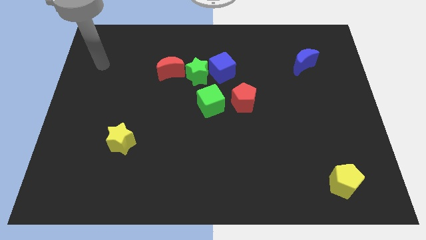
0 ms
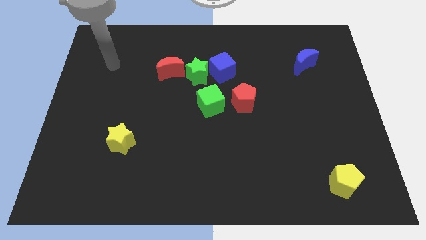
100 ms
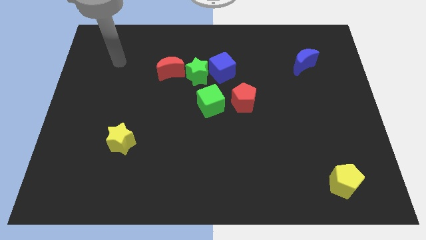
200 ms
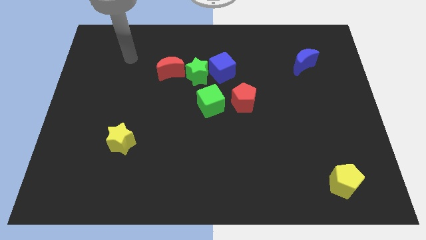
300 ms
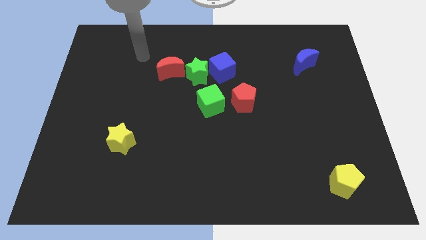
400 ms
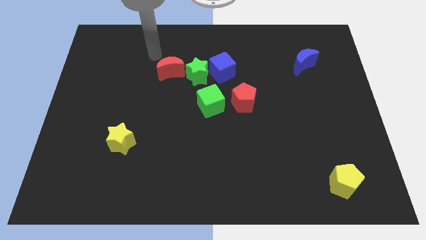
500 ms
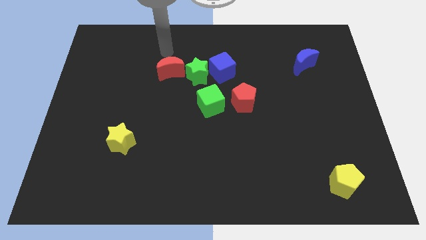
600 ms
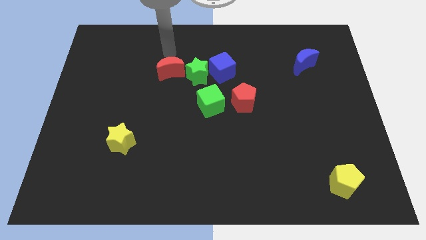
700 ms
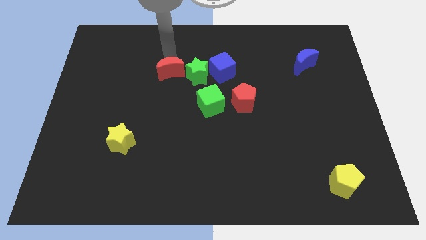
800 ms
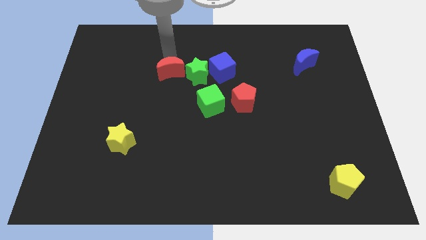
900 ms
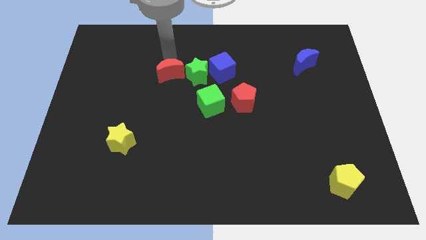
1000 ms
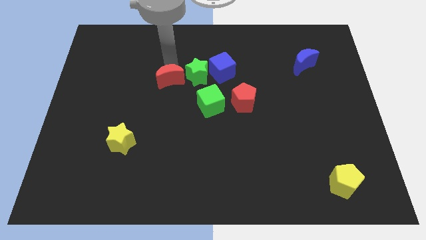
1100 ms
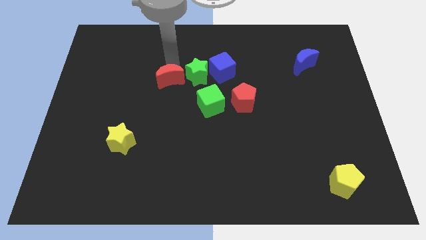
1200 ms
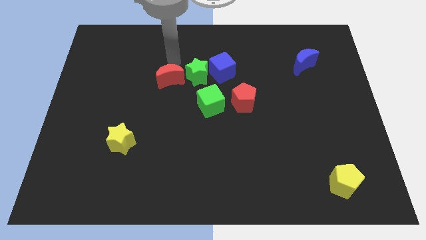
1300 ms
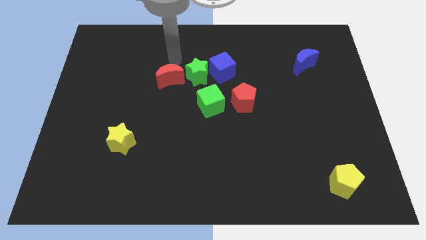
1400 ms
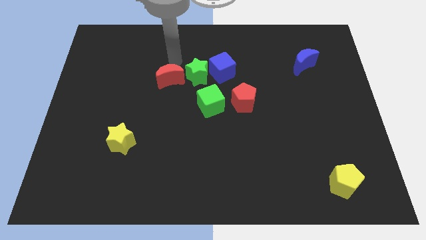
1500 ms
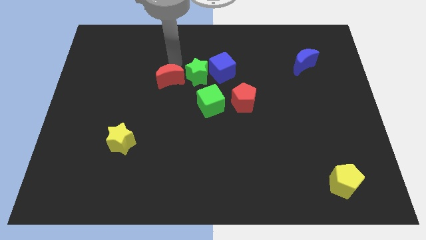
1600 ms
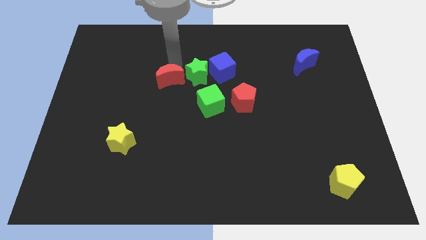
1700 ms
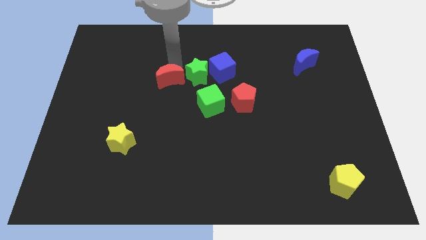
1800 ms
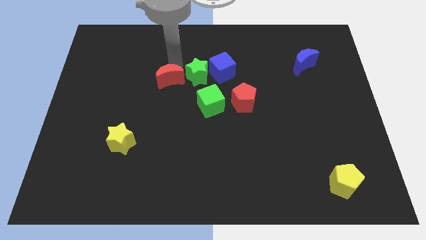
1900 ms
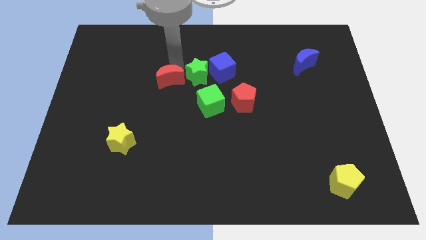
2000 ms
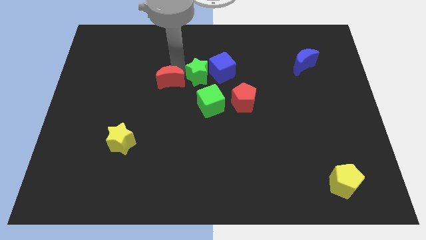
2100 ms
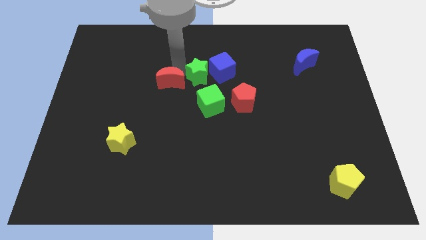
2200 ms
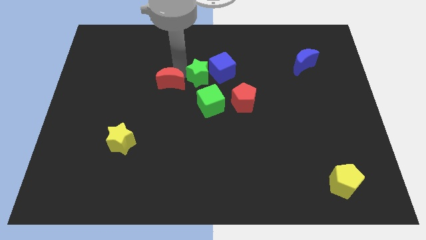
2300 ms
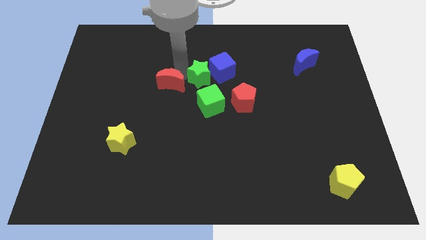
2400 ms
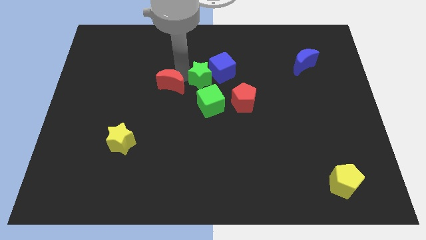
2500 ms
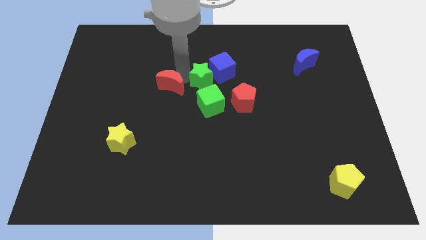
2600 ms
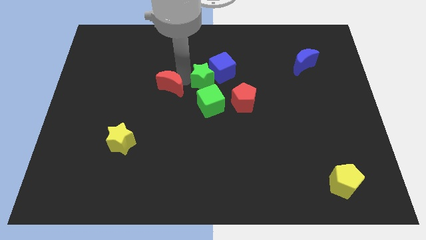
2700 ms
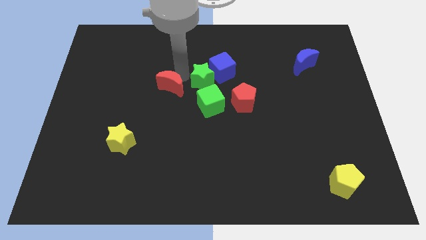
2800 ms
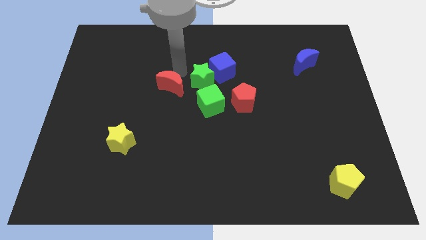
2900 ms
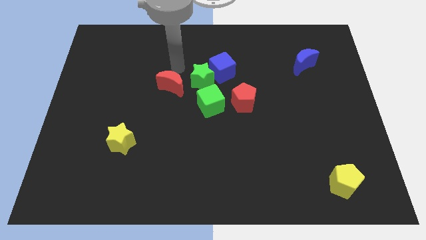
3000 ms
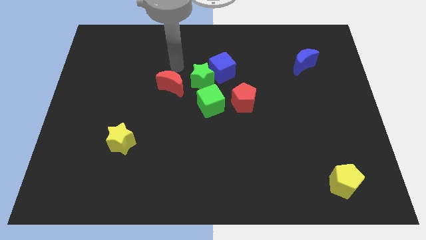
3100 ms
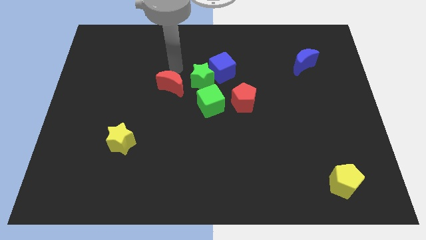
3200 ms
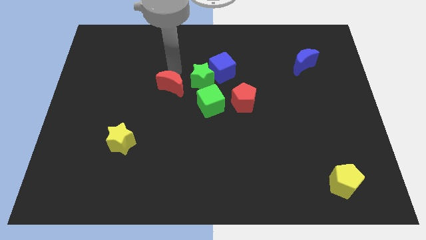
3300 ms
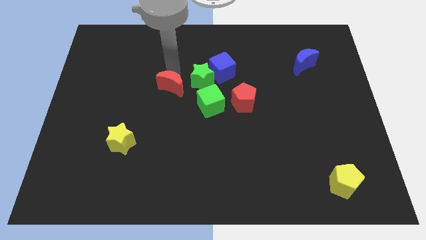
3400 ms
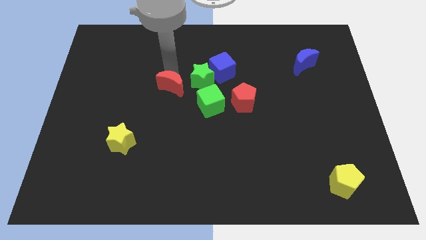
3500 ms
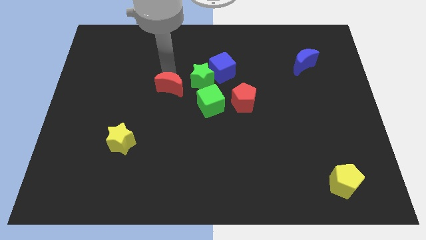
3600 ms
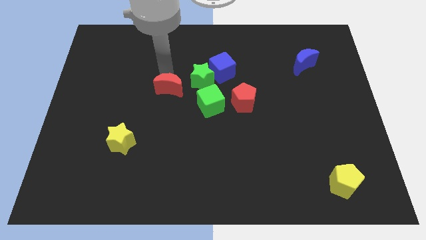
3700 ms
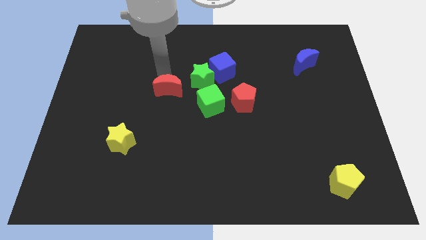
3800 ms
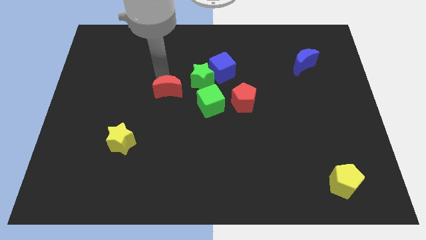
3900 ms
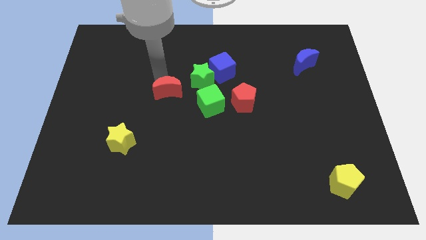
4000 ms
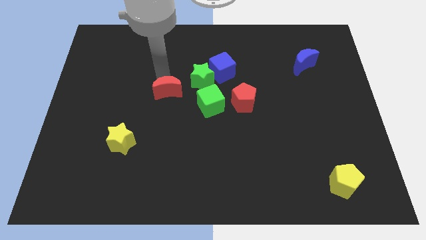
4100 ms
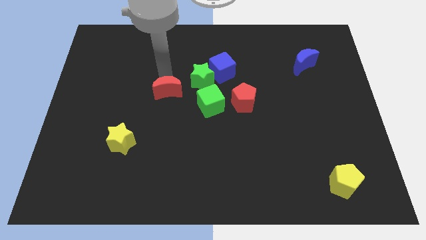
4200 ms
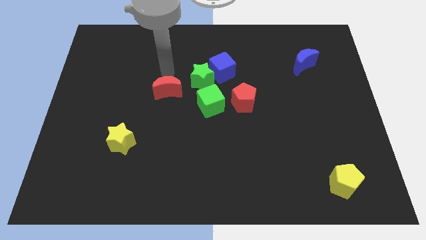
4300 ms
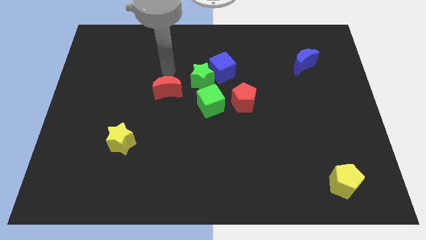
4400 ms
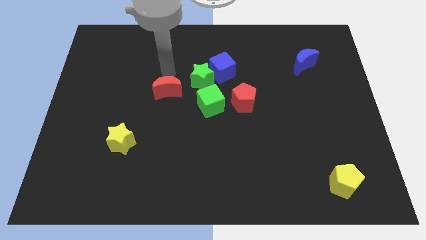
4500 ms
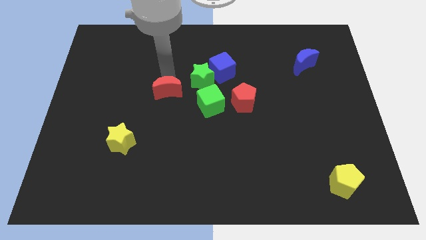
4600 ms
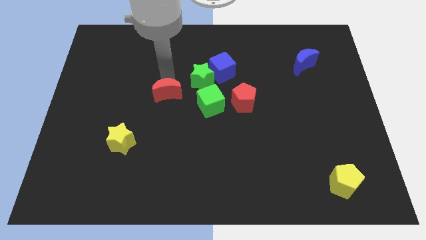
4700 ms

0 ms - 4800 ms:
push the red moon down slightly

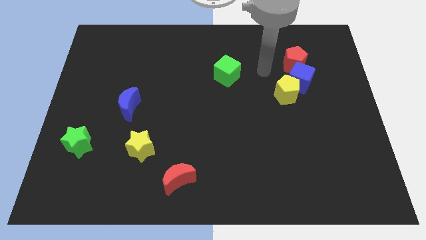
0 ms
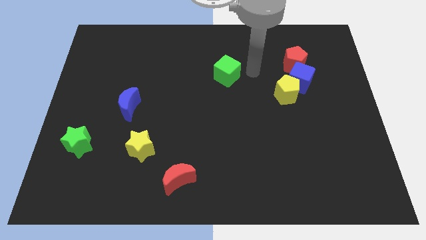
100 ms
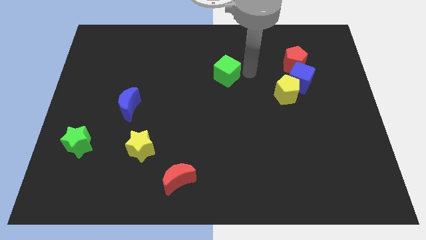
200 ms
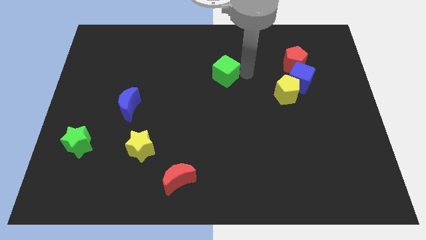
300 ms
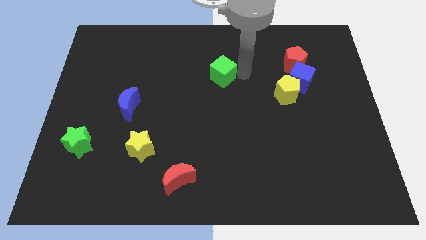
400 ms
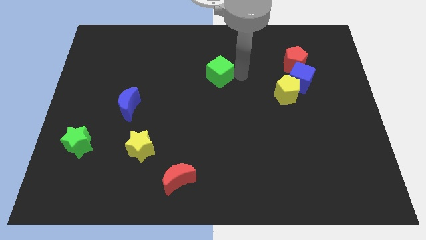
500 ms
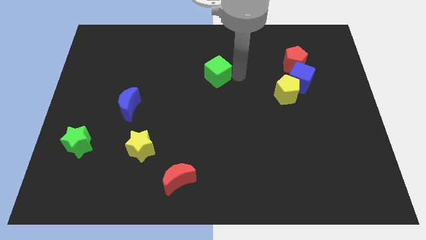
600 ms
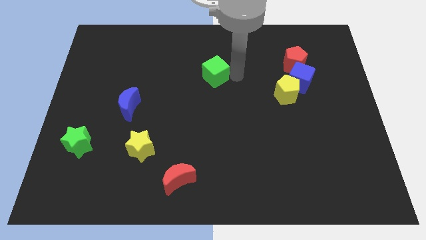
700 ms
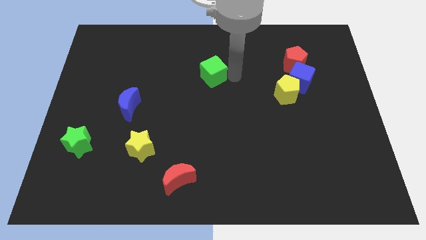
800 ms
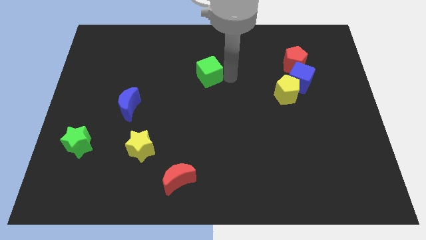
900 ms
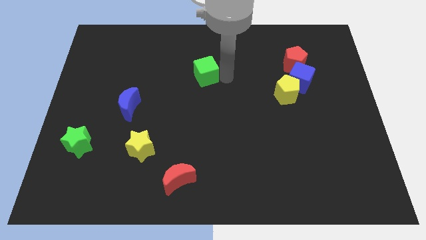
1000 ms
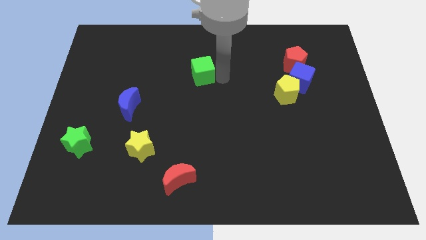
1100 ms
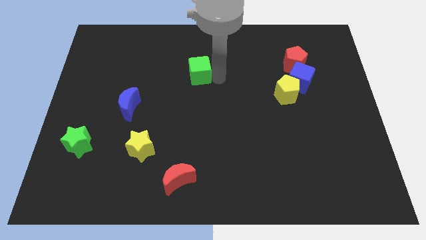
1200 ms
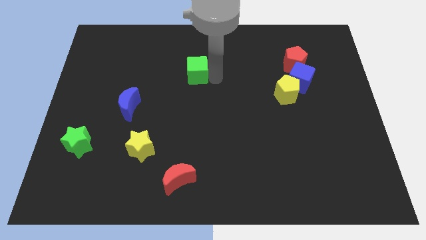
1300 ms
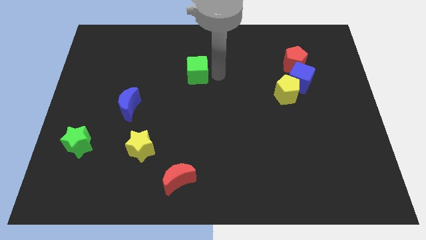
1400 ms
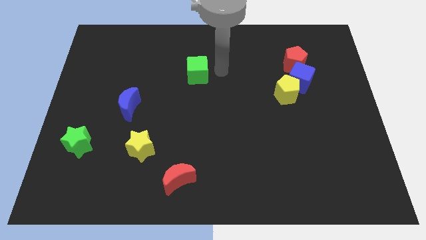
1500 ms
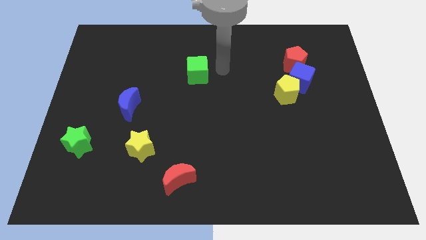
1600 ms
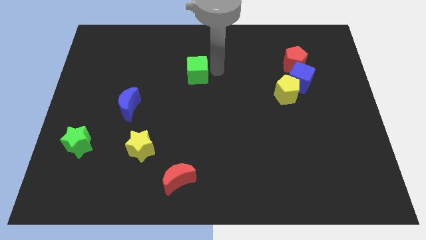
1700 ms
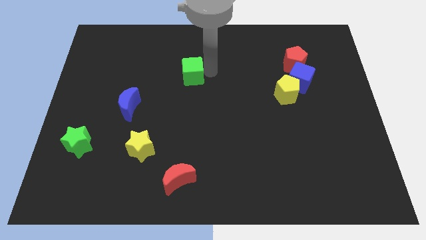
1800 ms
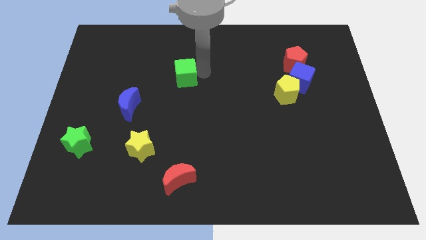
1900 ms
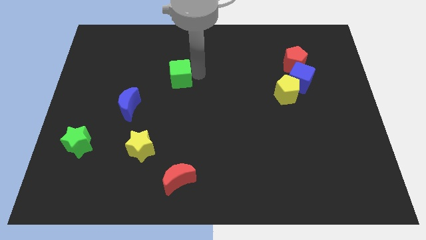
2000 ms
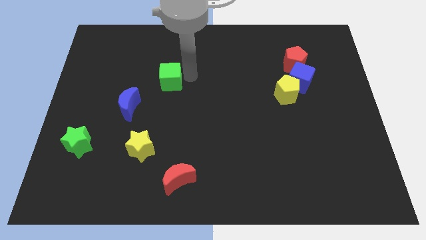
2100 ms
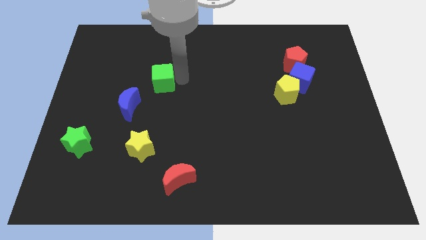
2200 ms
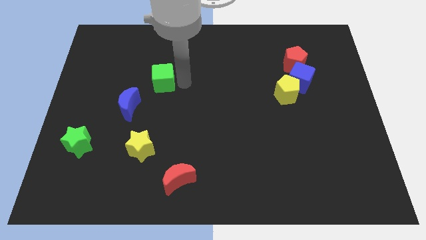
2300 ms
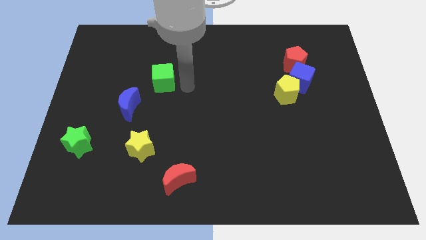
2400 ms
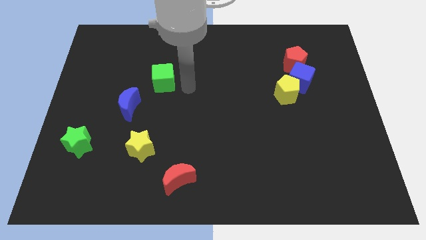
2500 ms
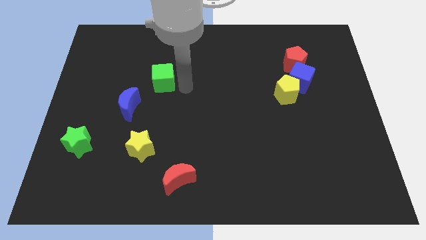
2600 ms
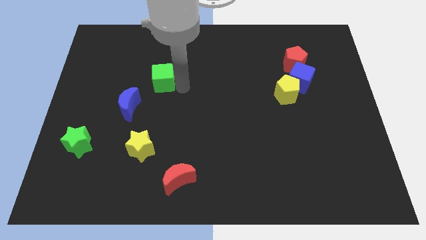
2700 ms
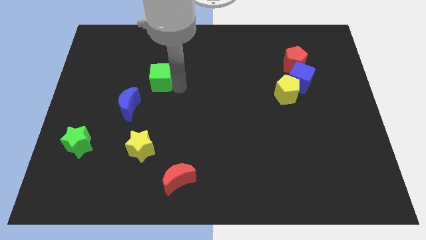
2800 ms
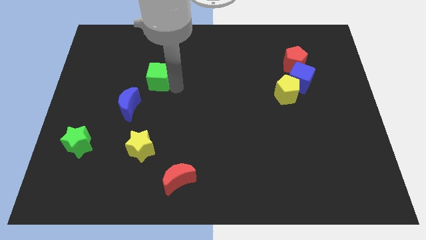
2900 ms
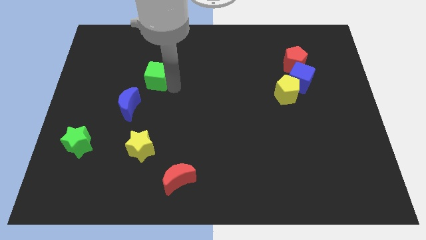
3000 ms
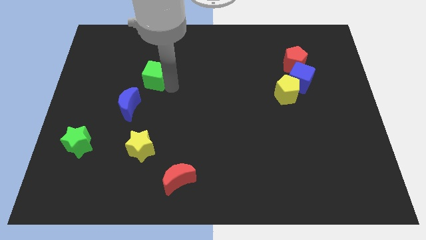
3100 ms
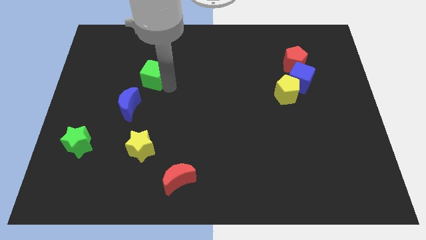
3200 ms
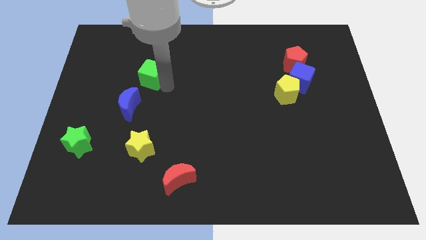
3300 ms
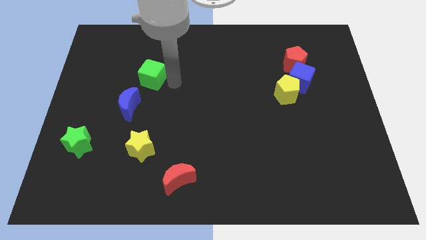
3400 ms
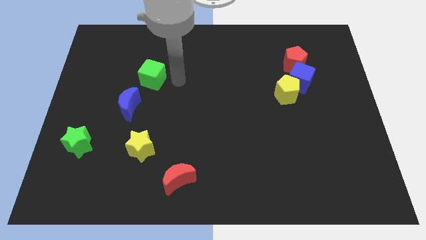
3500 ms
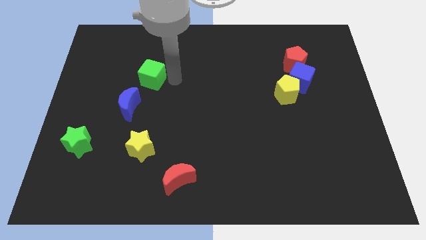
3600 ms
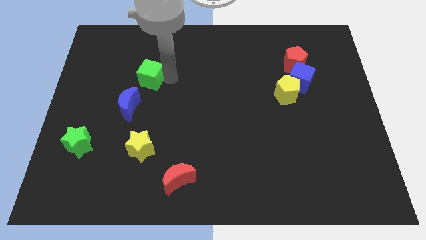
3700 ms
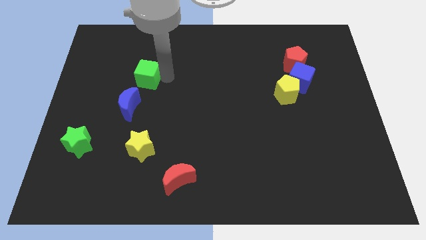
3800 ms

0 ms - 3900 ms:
move the green cube to the left
